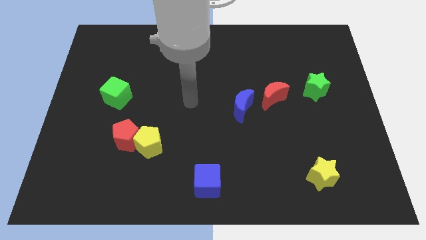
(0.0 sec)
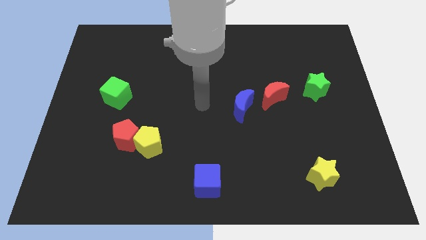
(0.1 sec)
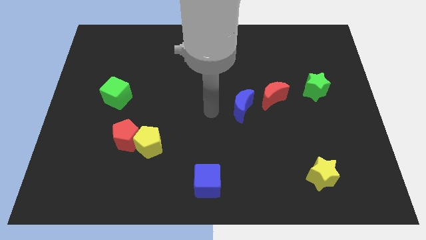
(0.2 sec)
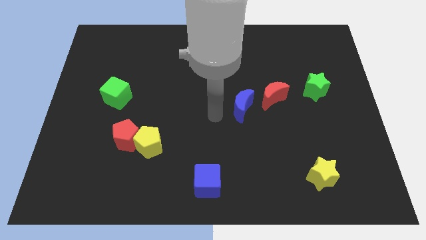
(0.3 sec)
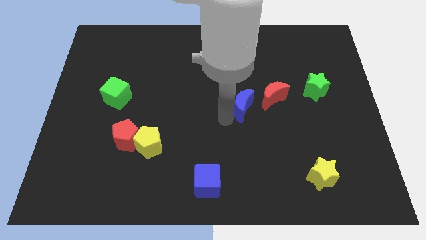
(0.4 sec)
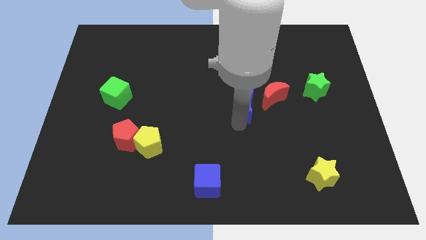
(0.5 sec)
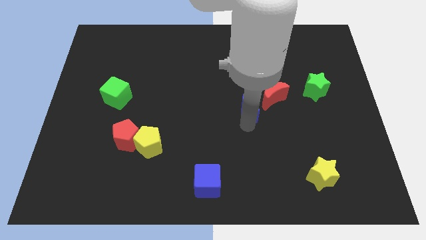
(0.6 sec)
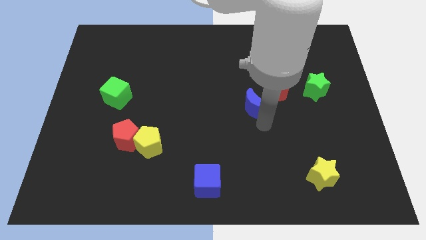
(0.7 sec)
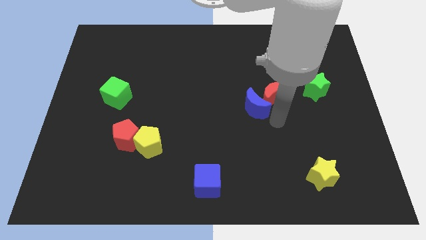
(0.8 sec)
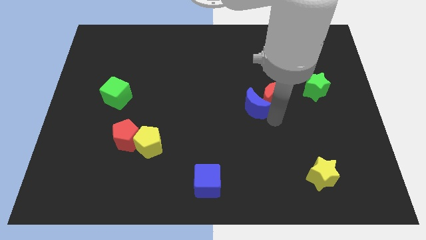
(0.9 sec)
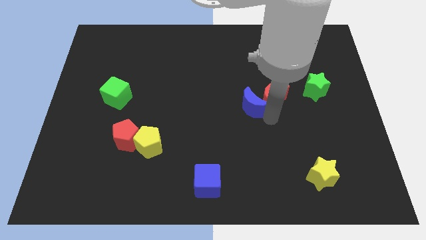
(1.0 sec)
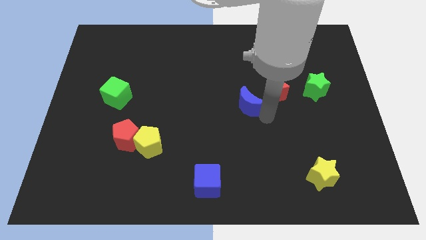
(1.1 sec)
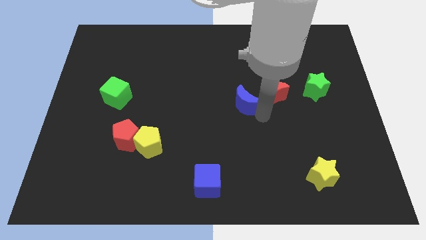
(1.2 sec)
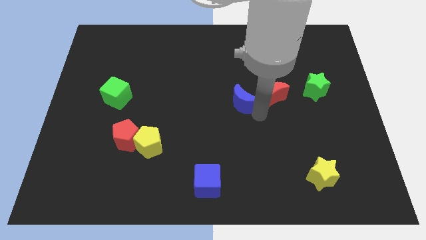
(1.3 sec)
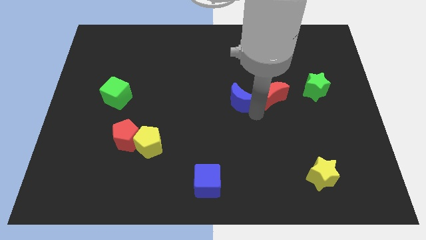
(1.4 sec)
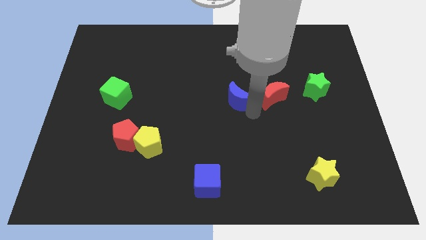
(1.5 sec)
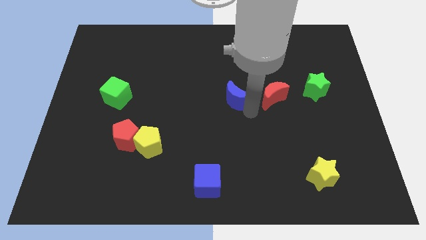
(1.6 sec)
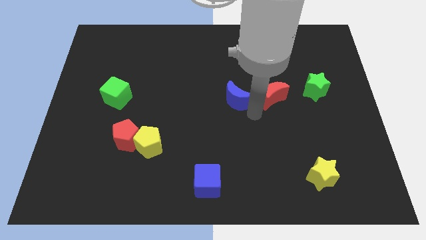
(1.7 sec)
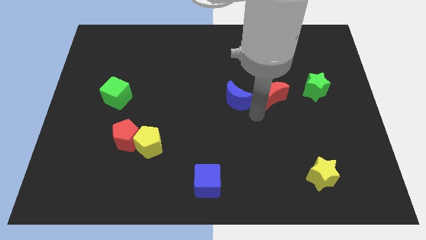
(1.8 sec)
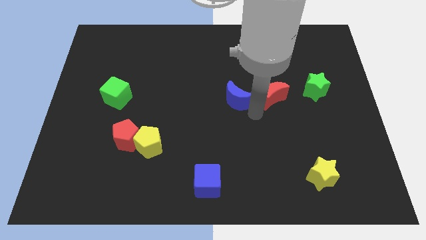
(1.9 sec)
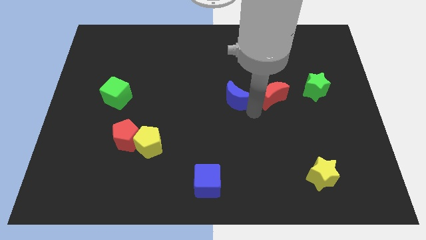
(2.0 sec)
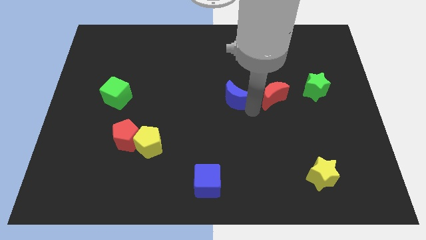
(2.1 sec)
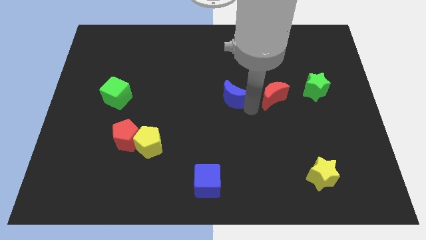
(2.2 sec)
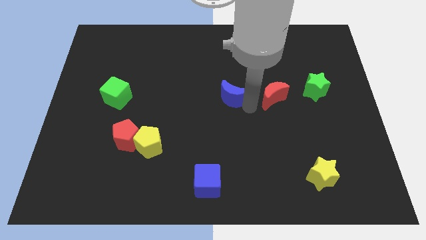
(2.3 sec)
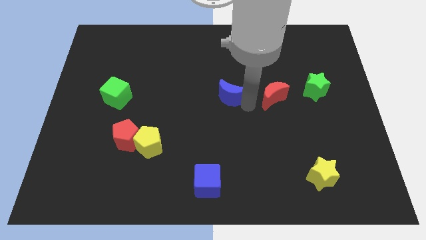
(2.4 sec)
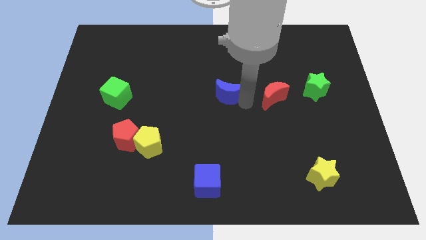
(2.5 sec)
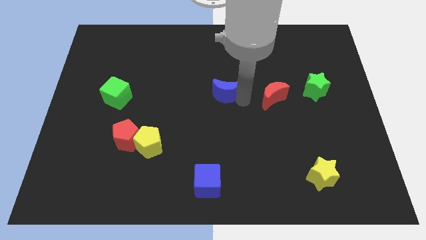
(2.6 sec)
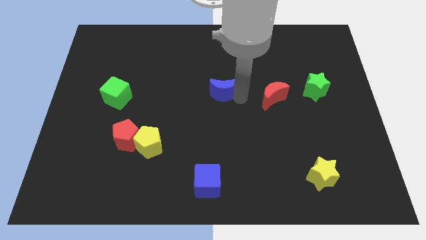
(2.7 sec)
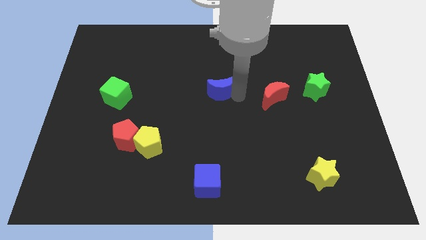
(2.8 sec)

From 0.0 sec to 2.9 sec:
move the blue moon a bit upwards and then to the left

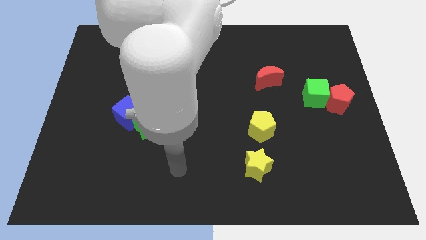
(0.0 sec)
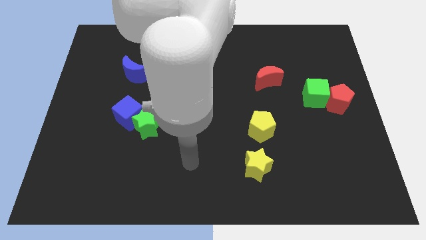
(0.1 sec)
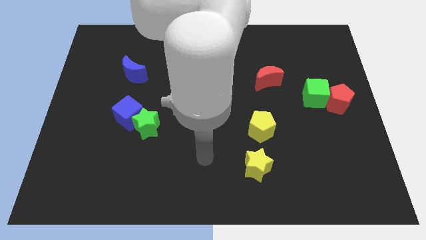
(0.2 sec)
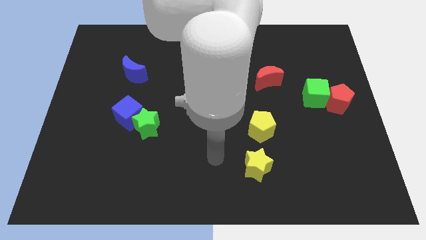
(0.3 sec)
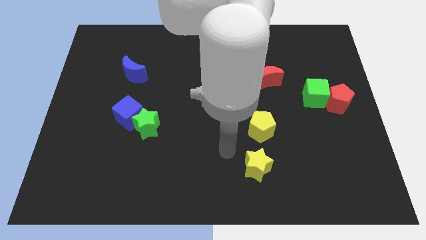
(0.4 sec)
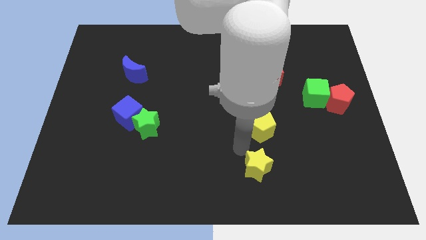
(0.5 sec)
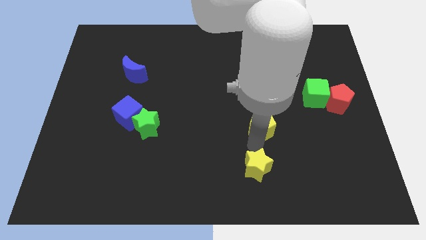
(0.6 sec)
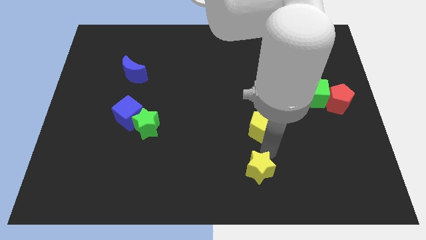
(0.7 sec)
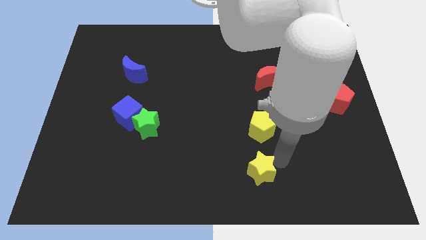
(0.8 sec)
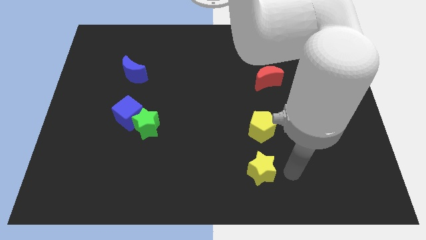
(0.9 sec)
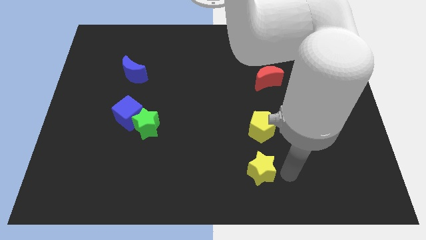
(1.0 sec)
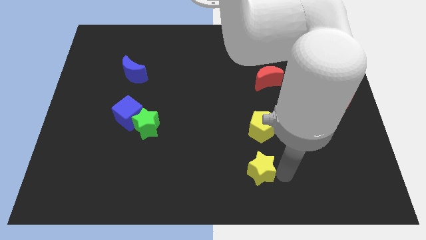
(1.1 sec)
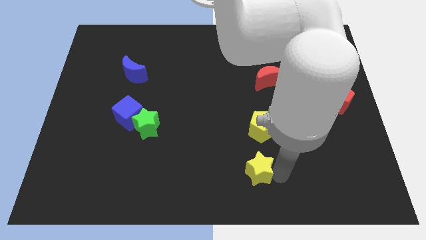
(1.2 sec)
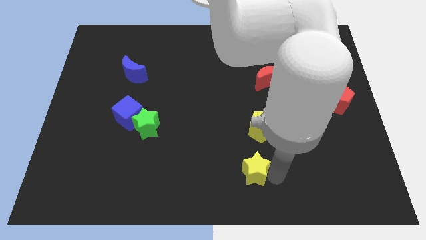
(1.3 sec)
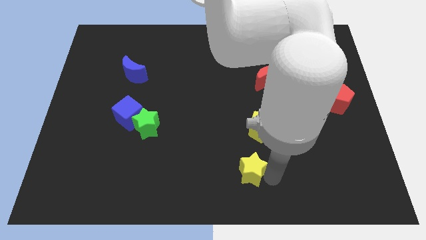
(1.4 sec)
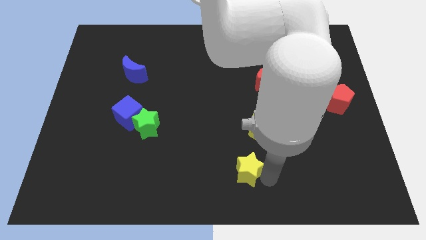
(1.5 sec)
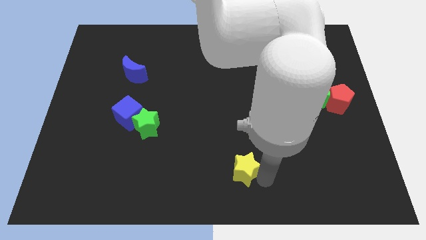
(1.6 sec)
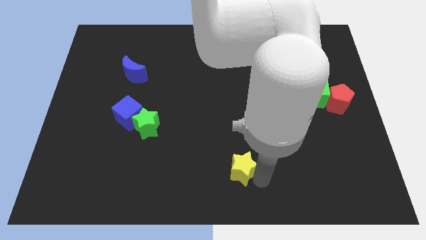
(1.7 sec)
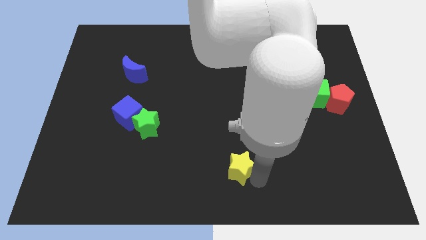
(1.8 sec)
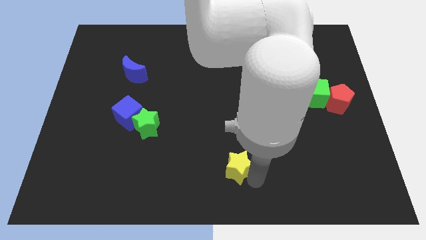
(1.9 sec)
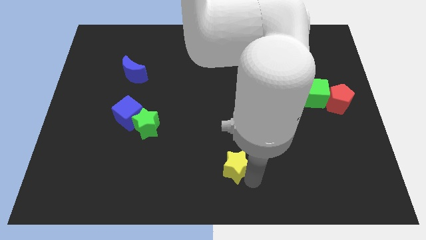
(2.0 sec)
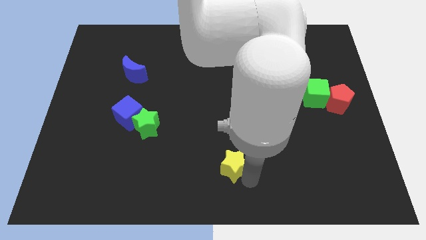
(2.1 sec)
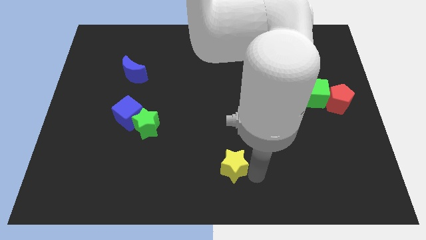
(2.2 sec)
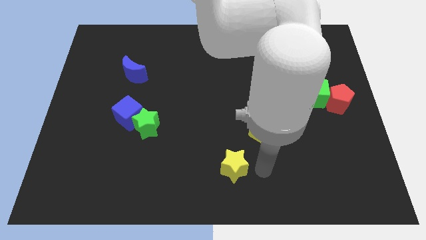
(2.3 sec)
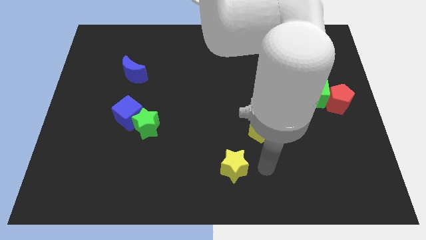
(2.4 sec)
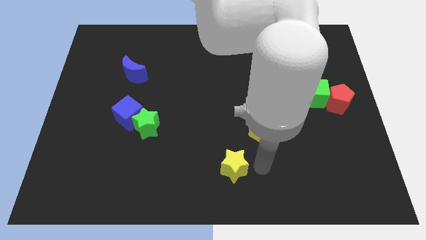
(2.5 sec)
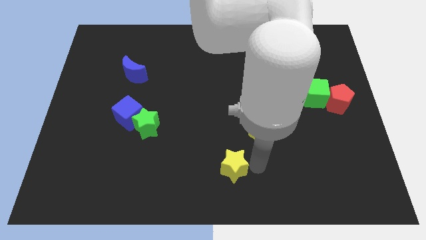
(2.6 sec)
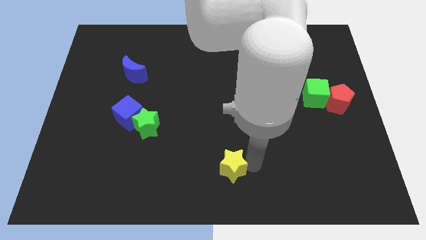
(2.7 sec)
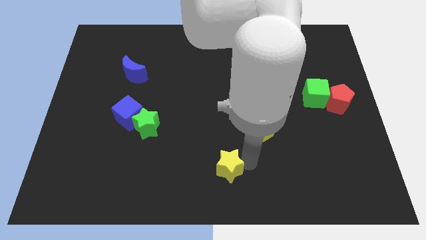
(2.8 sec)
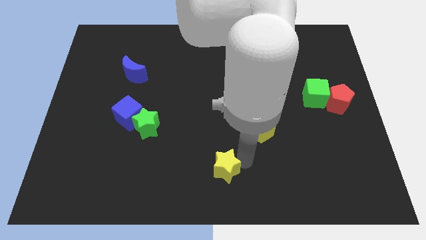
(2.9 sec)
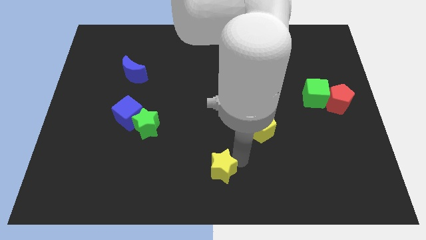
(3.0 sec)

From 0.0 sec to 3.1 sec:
slightly slide the yellow star left

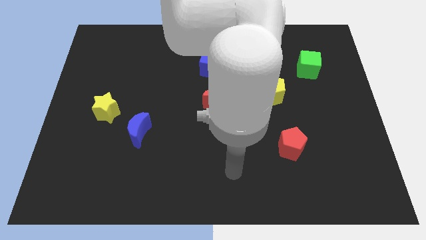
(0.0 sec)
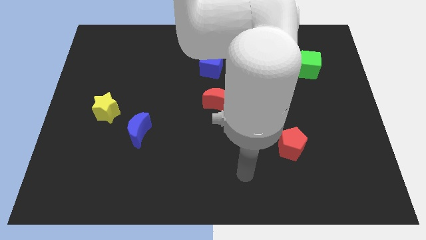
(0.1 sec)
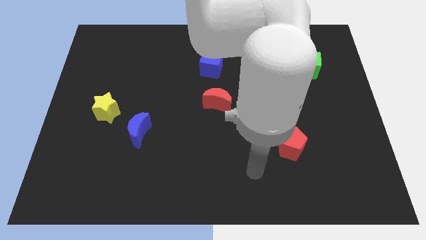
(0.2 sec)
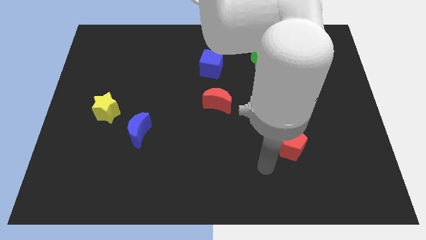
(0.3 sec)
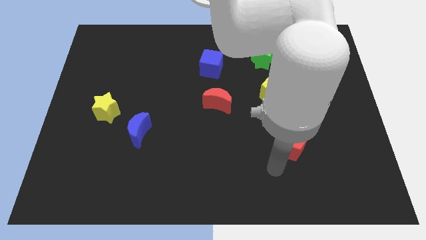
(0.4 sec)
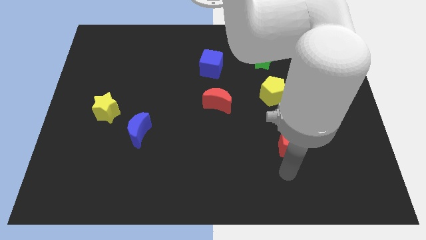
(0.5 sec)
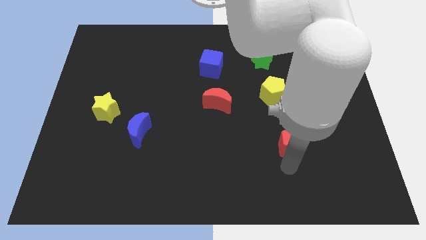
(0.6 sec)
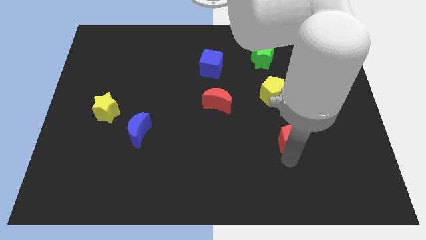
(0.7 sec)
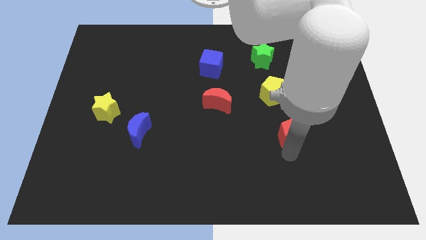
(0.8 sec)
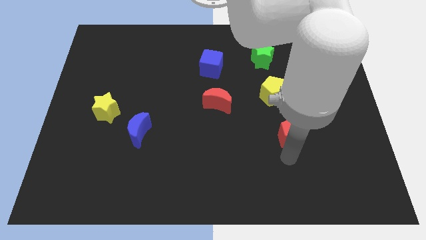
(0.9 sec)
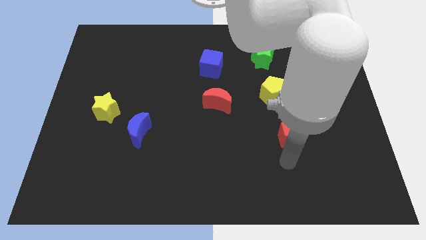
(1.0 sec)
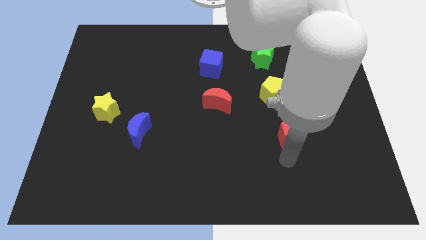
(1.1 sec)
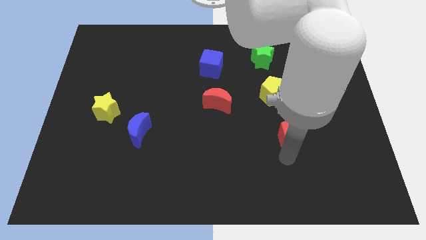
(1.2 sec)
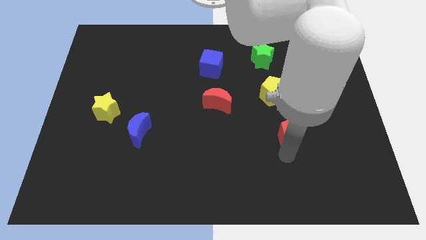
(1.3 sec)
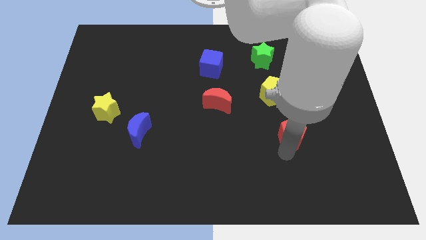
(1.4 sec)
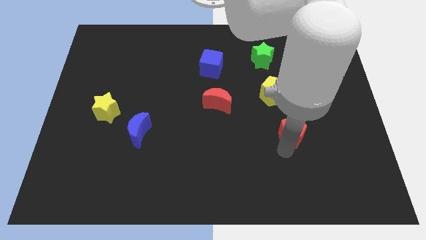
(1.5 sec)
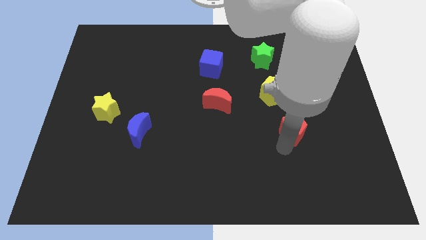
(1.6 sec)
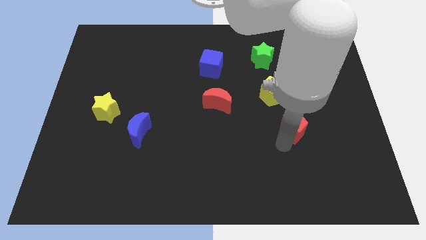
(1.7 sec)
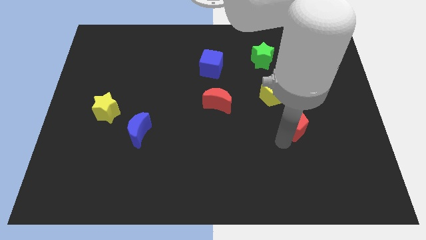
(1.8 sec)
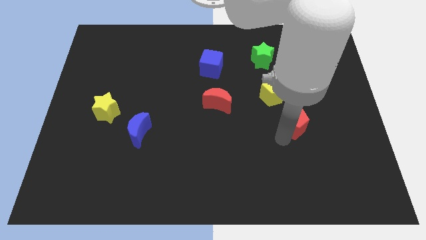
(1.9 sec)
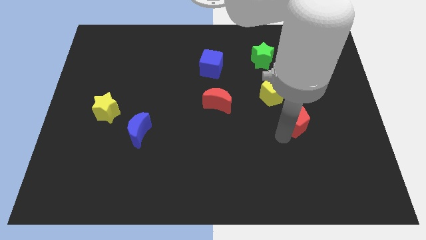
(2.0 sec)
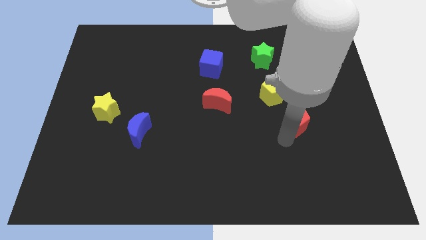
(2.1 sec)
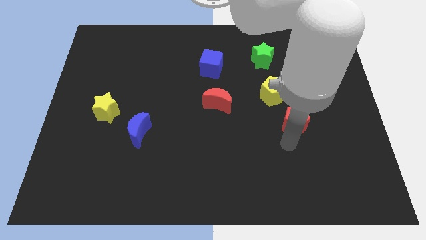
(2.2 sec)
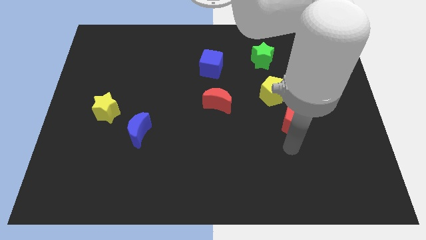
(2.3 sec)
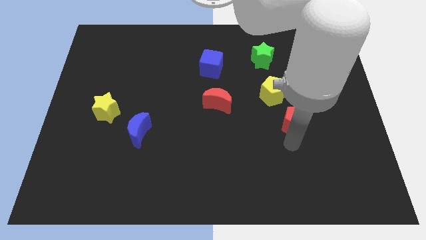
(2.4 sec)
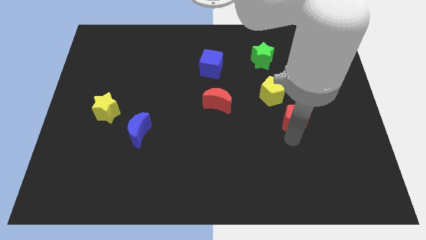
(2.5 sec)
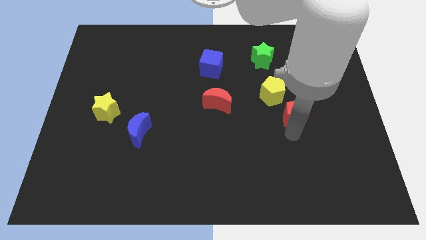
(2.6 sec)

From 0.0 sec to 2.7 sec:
push the red pentagon somewhat upwards
